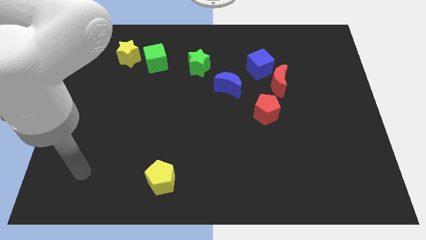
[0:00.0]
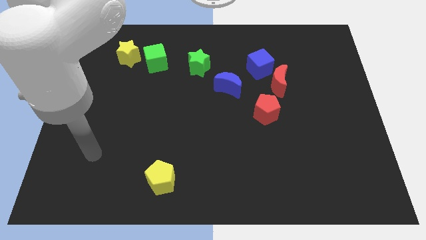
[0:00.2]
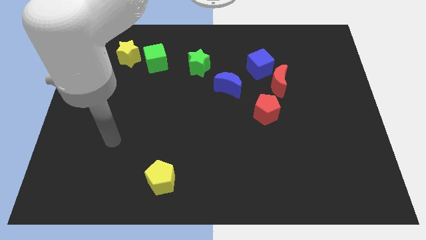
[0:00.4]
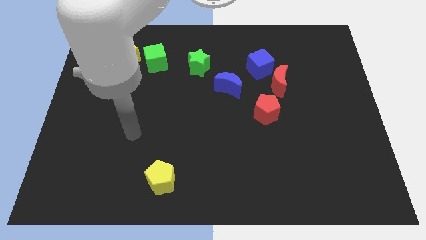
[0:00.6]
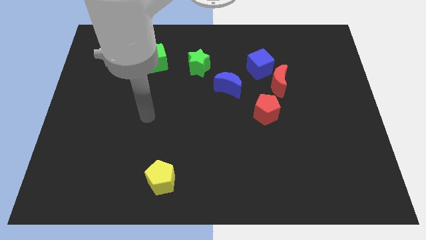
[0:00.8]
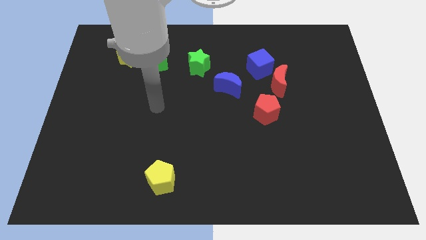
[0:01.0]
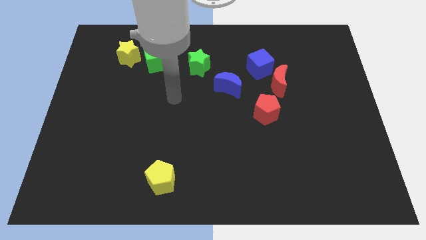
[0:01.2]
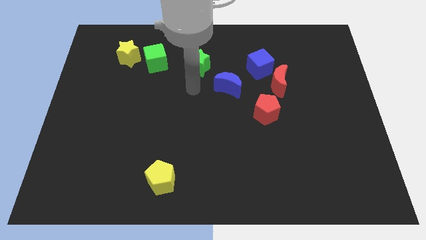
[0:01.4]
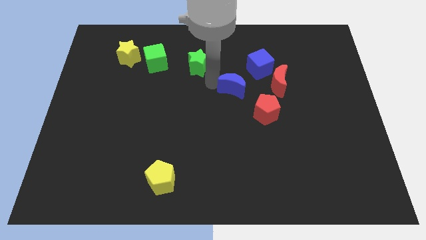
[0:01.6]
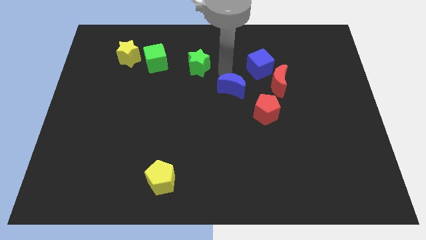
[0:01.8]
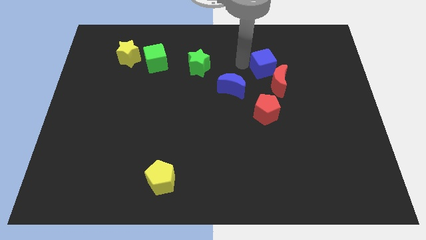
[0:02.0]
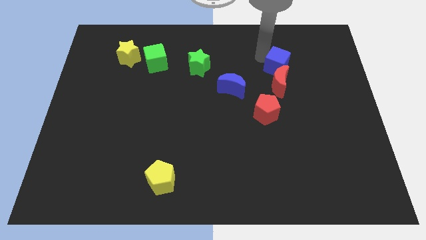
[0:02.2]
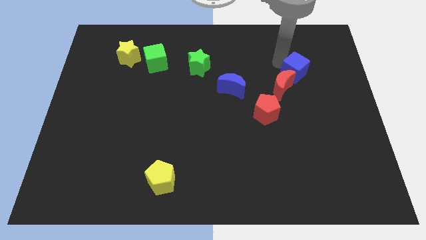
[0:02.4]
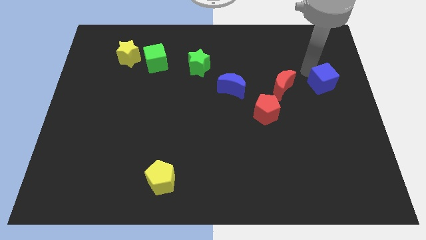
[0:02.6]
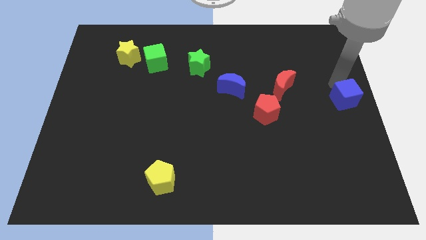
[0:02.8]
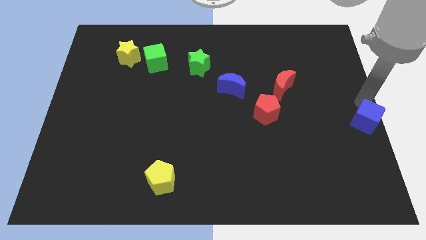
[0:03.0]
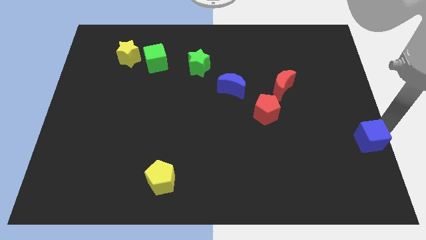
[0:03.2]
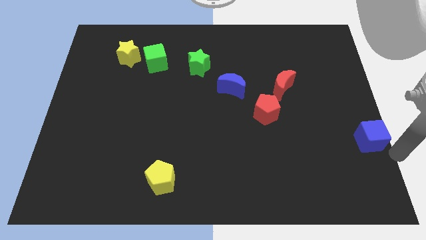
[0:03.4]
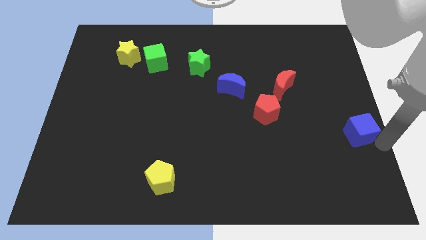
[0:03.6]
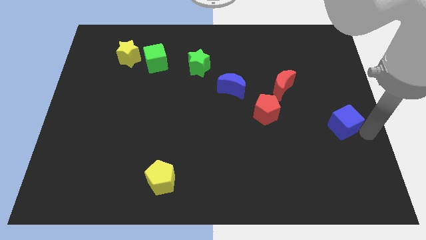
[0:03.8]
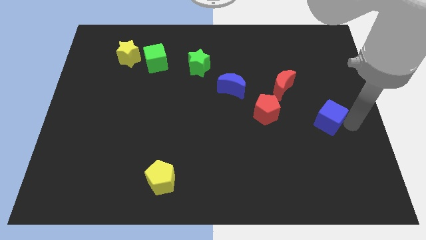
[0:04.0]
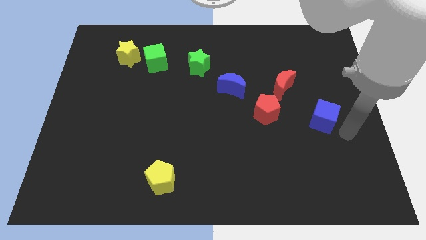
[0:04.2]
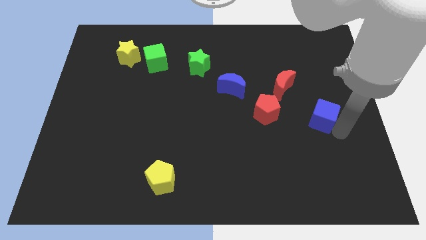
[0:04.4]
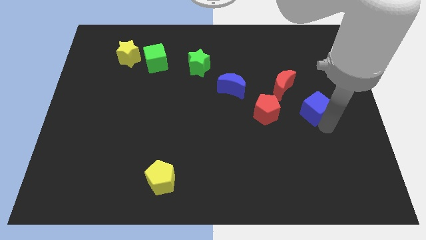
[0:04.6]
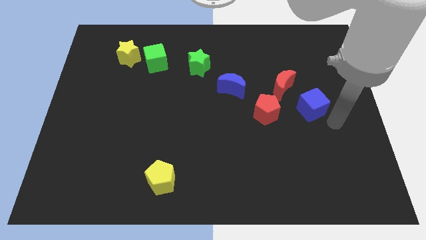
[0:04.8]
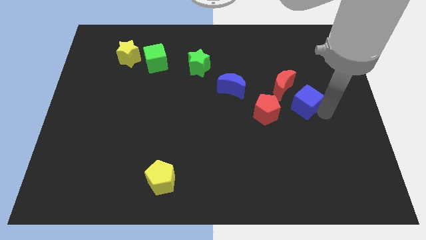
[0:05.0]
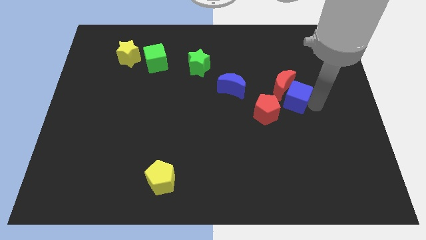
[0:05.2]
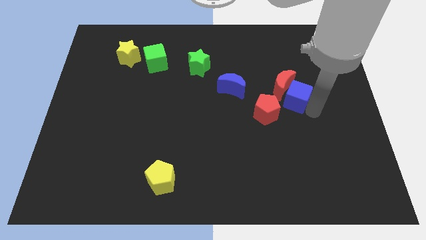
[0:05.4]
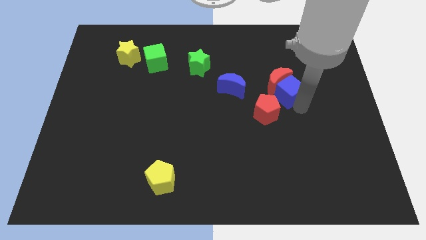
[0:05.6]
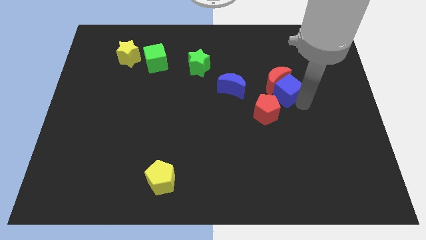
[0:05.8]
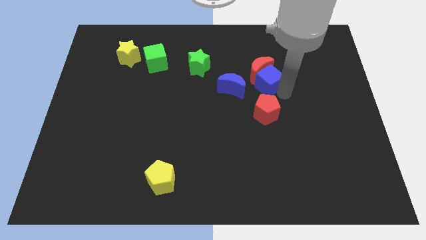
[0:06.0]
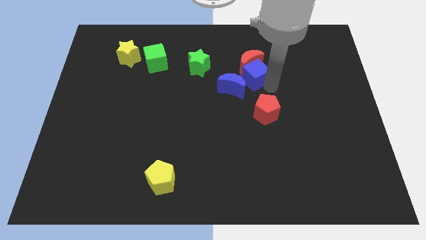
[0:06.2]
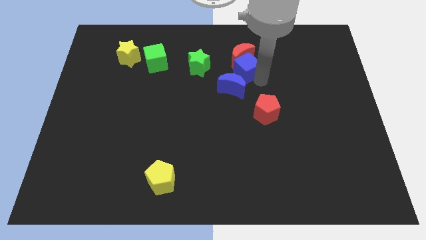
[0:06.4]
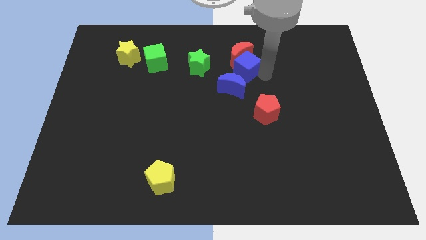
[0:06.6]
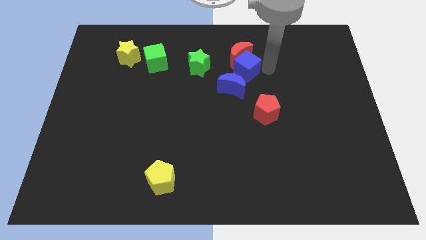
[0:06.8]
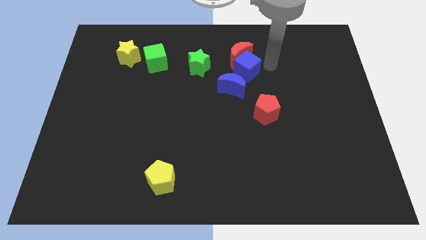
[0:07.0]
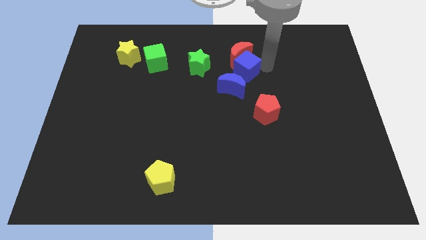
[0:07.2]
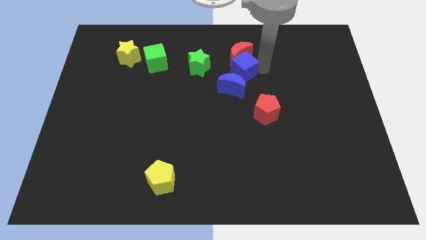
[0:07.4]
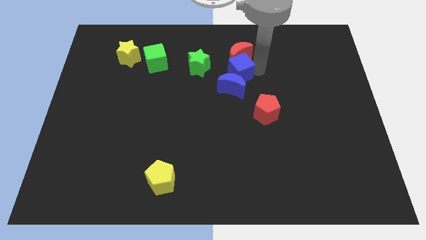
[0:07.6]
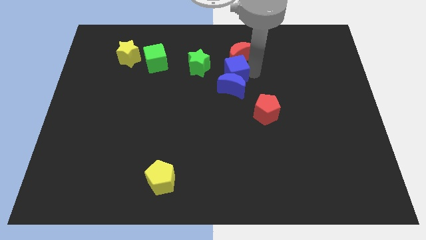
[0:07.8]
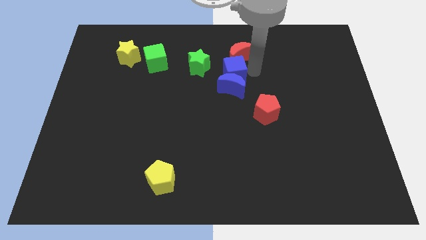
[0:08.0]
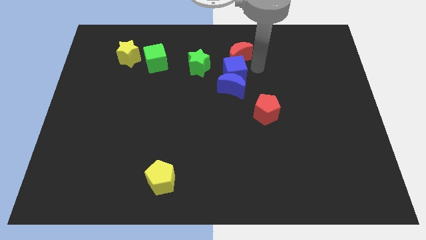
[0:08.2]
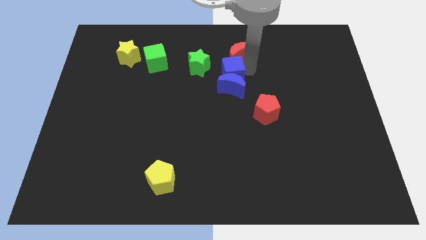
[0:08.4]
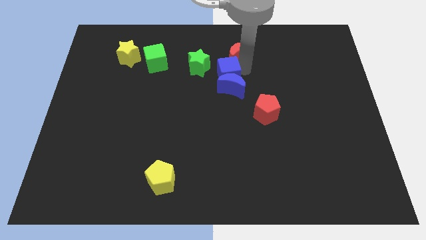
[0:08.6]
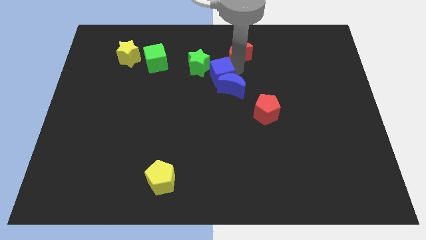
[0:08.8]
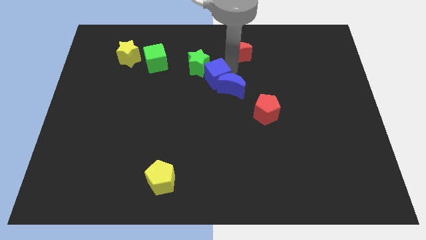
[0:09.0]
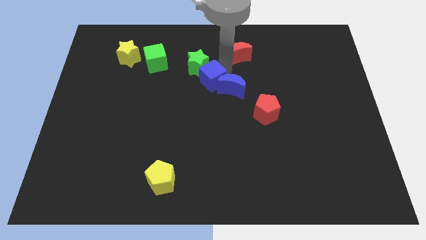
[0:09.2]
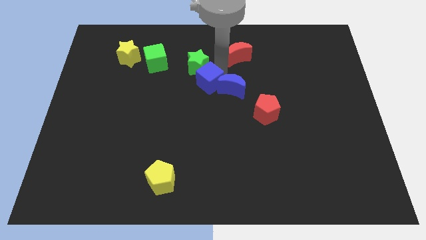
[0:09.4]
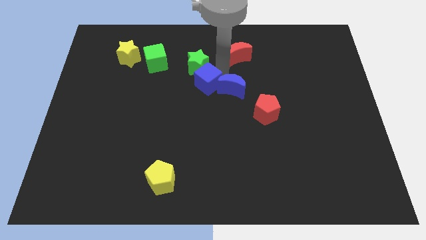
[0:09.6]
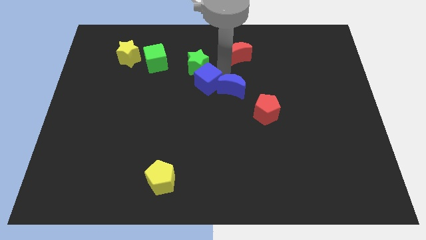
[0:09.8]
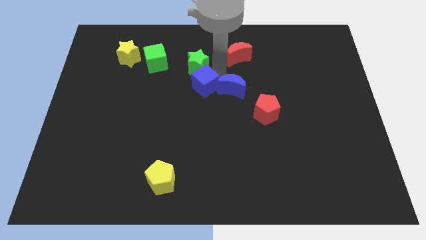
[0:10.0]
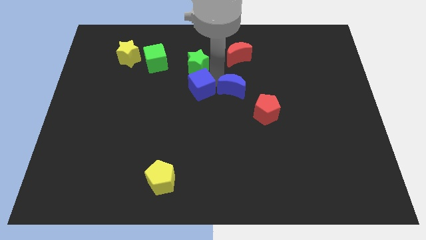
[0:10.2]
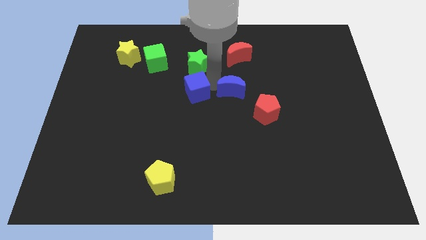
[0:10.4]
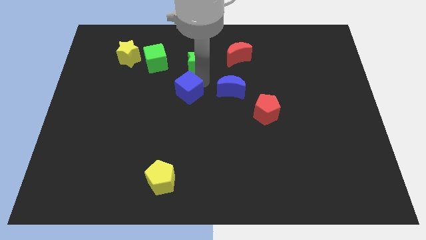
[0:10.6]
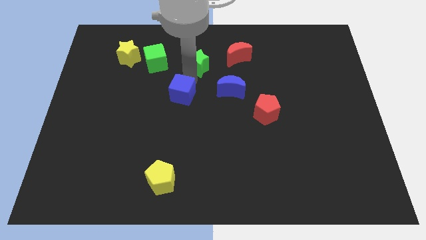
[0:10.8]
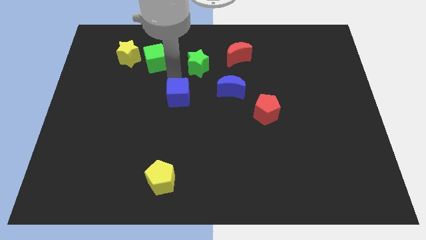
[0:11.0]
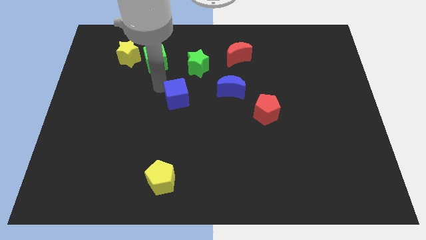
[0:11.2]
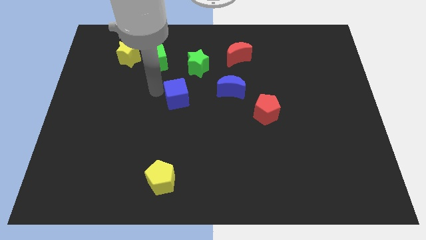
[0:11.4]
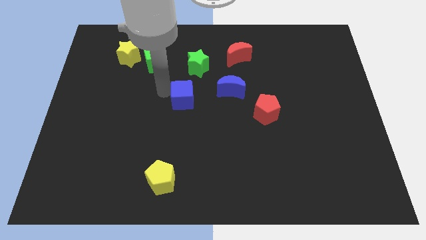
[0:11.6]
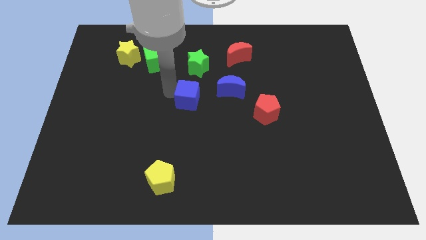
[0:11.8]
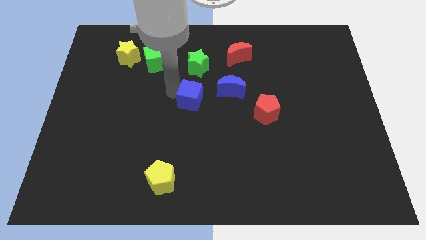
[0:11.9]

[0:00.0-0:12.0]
slide the blue cube to the bottom left of the blue moon

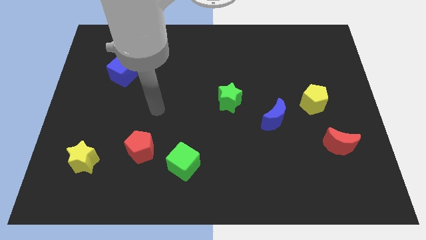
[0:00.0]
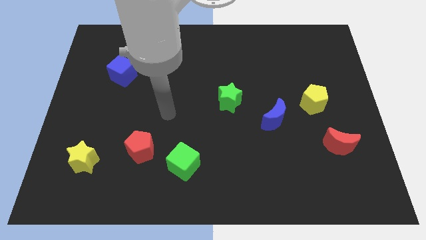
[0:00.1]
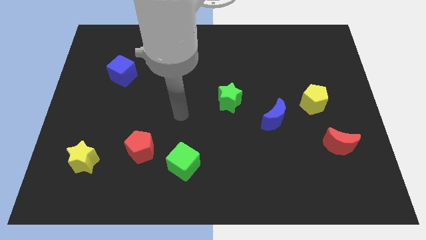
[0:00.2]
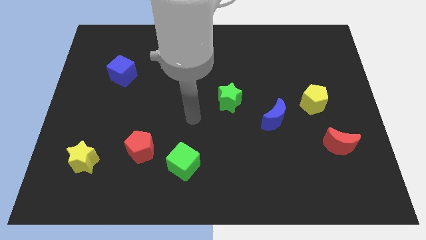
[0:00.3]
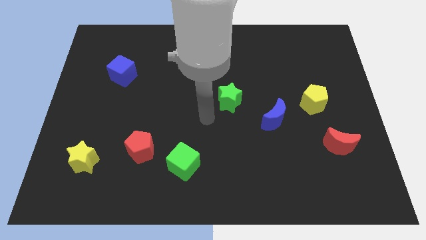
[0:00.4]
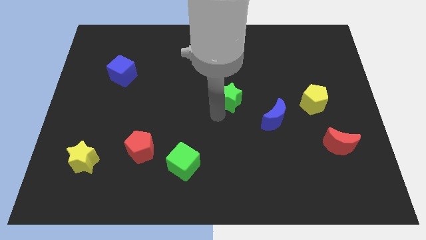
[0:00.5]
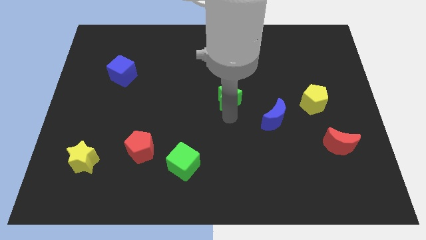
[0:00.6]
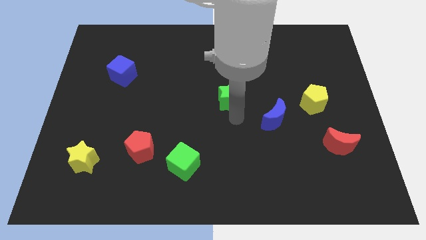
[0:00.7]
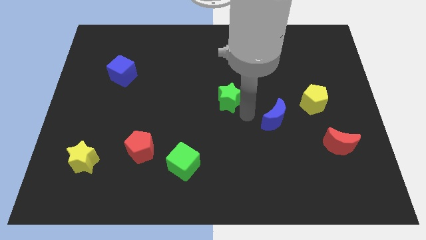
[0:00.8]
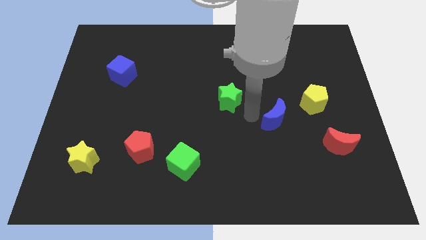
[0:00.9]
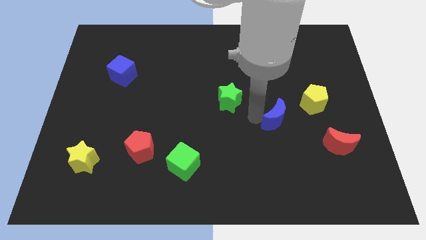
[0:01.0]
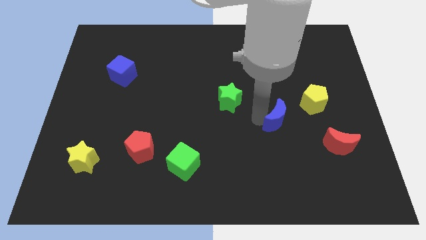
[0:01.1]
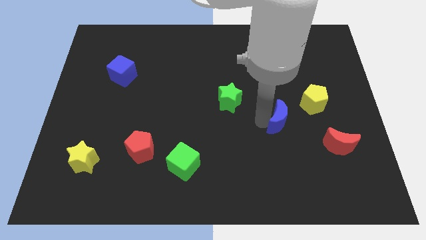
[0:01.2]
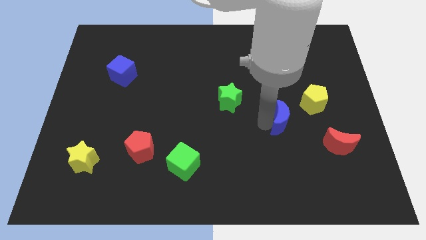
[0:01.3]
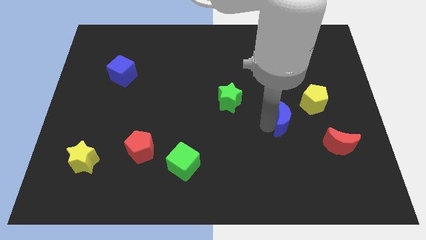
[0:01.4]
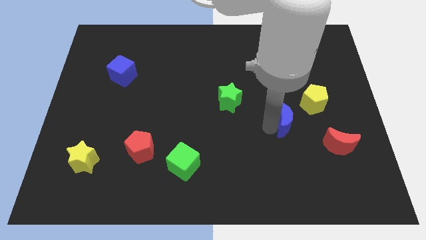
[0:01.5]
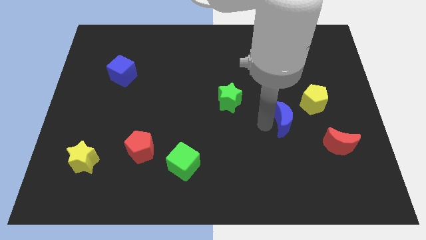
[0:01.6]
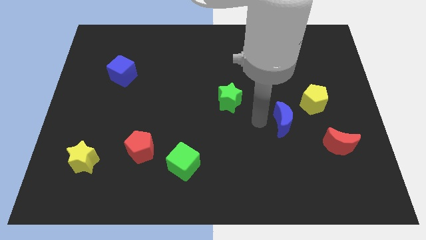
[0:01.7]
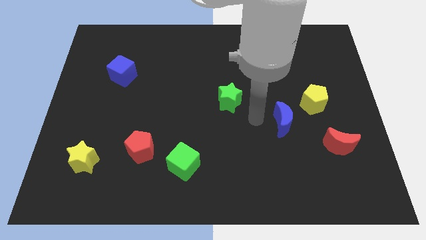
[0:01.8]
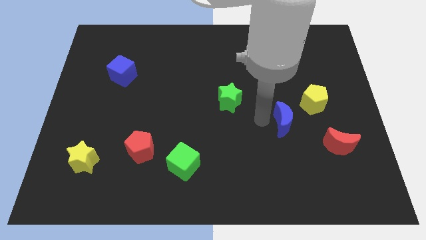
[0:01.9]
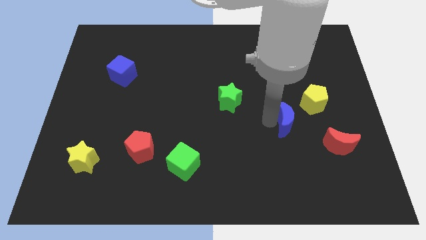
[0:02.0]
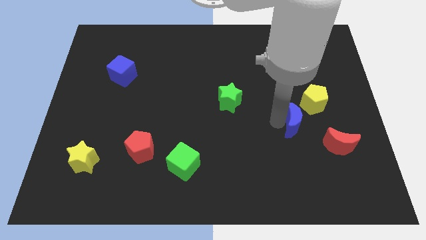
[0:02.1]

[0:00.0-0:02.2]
slide the blue moon diagonally up and to the left of the red moon
